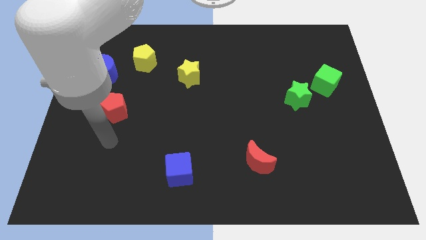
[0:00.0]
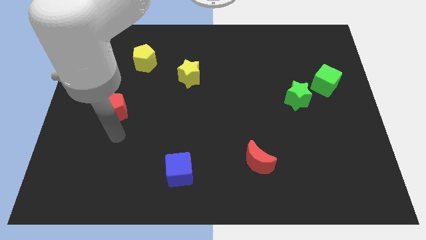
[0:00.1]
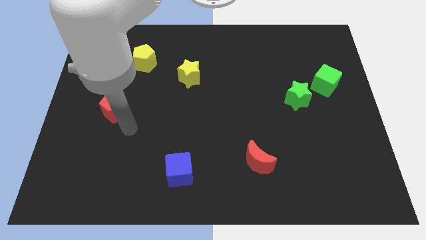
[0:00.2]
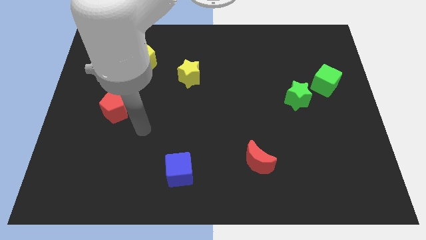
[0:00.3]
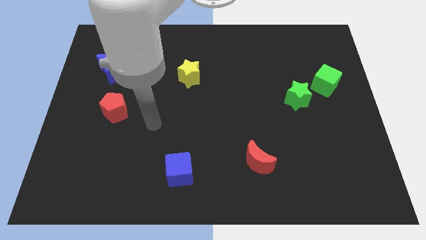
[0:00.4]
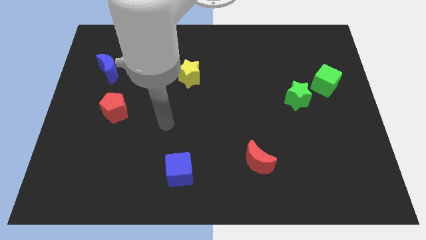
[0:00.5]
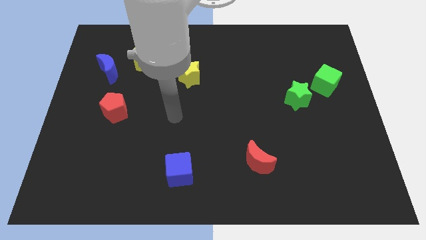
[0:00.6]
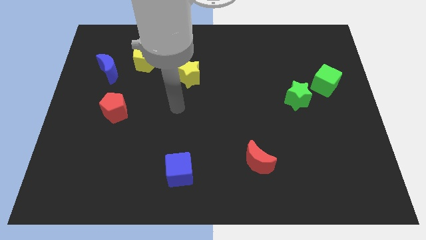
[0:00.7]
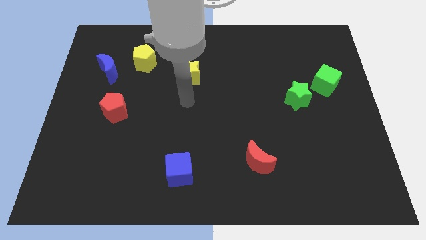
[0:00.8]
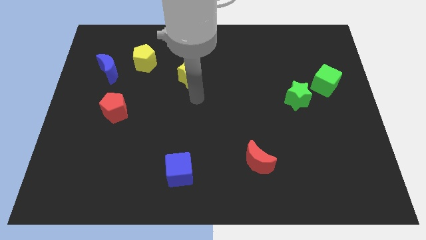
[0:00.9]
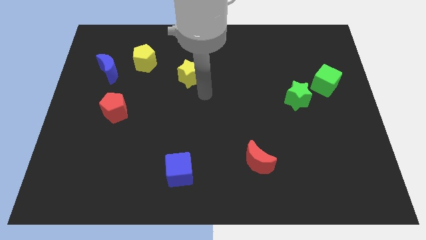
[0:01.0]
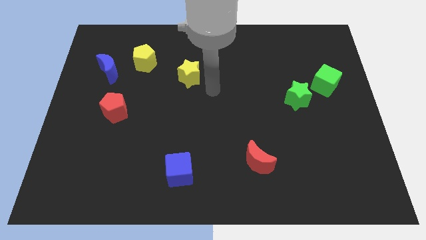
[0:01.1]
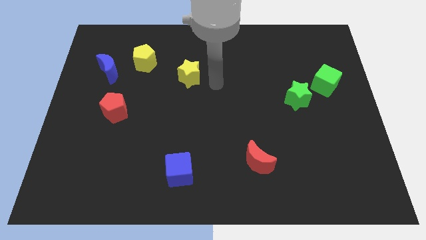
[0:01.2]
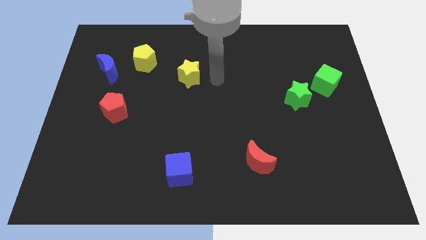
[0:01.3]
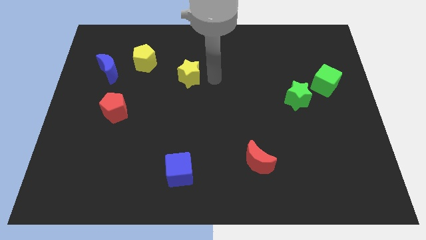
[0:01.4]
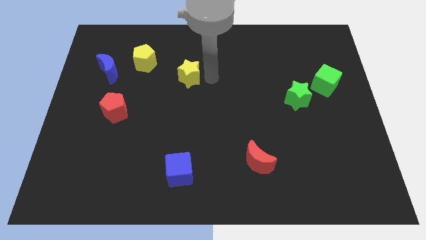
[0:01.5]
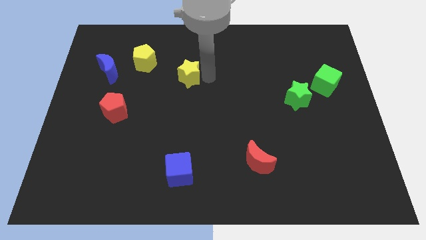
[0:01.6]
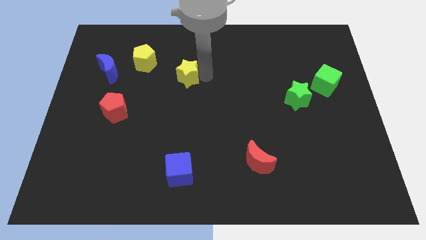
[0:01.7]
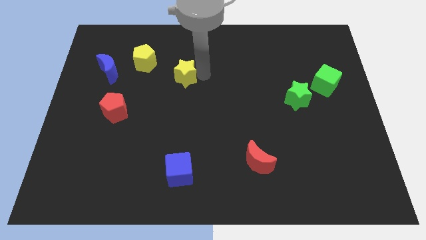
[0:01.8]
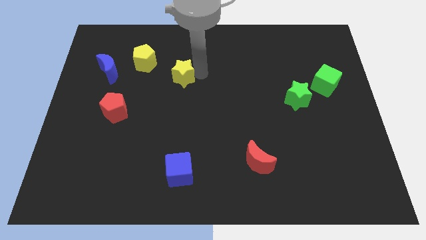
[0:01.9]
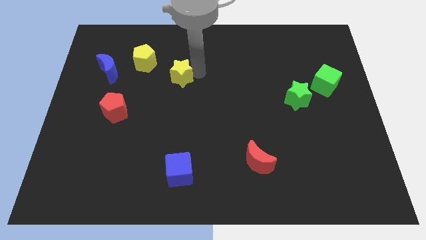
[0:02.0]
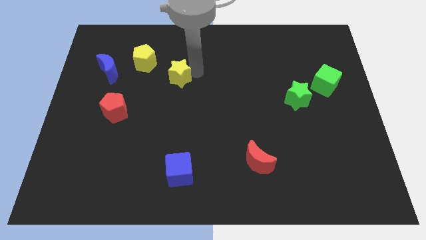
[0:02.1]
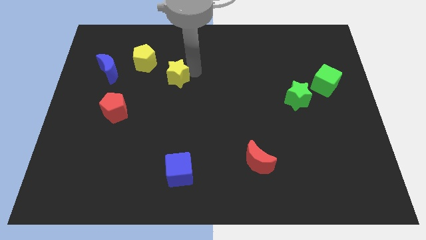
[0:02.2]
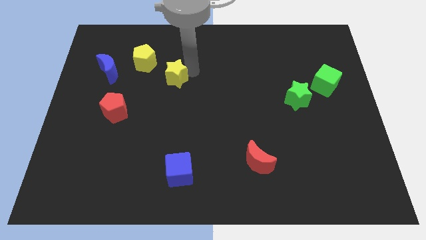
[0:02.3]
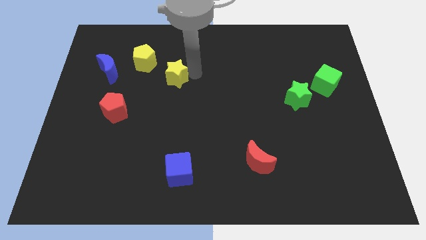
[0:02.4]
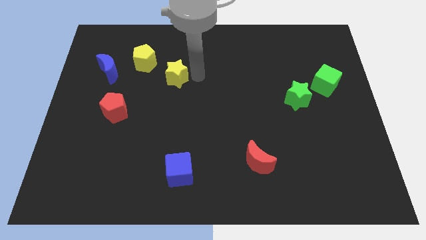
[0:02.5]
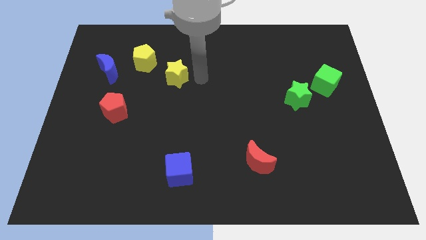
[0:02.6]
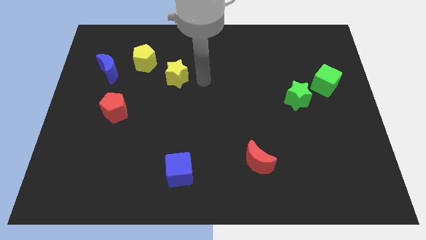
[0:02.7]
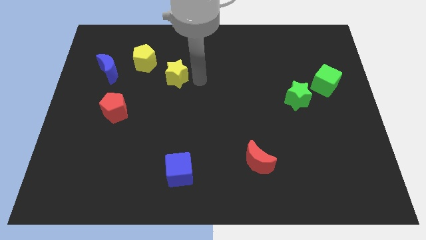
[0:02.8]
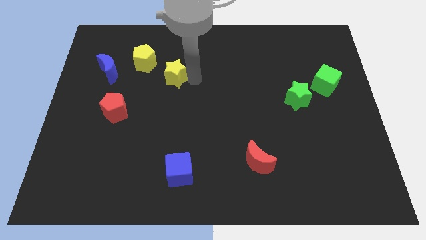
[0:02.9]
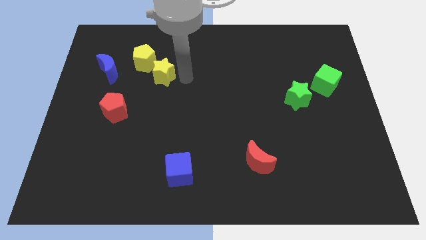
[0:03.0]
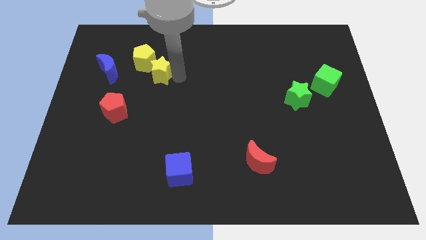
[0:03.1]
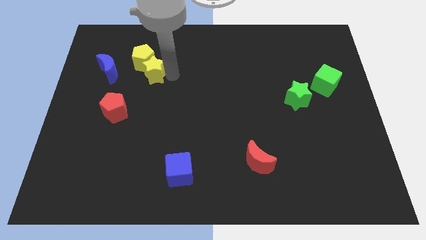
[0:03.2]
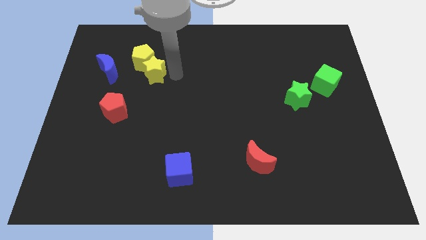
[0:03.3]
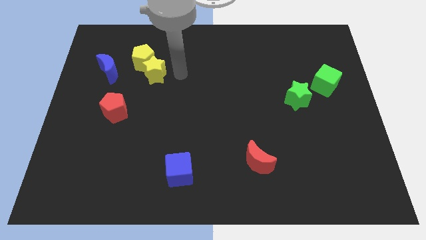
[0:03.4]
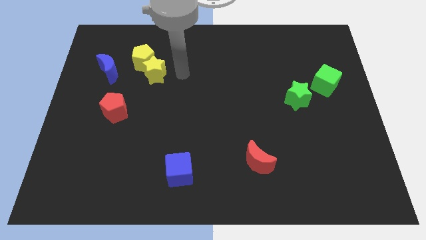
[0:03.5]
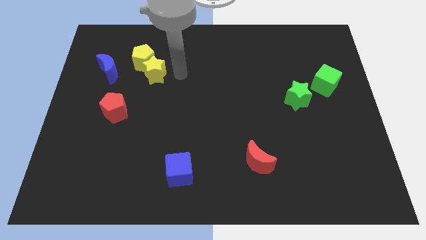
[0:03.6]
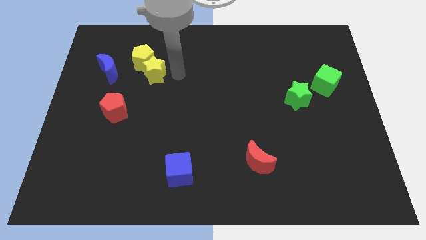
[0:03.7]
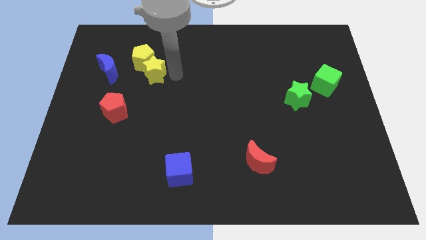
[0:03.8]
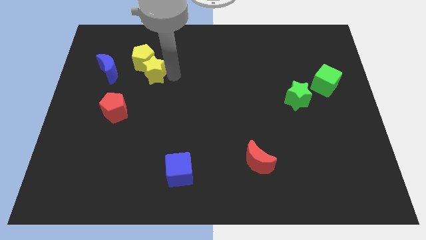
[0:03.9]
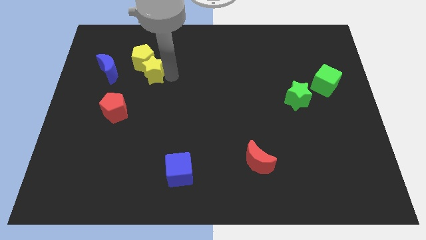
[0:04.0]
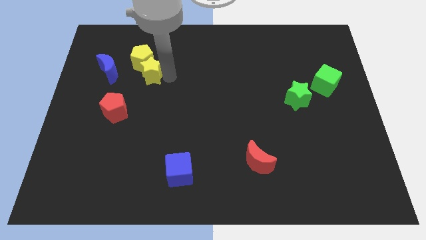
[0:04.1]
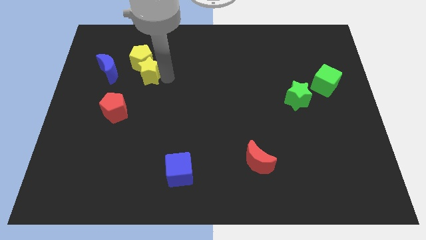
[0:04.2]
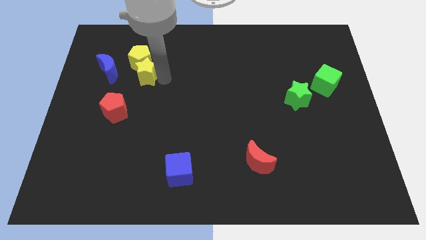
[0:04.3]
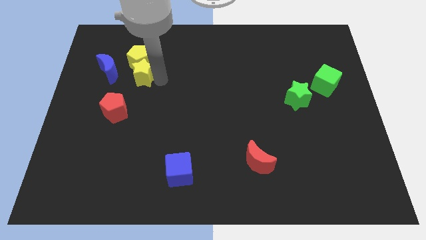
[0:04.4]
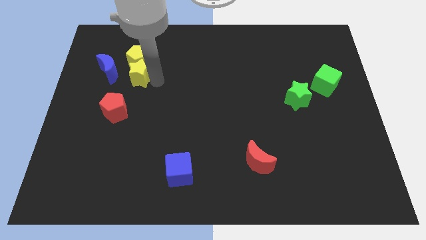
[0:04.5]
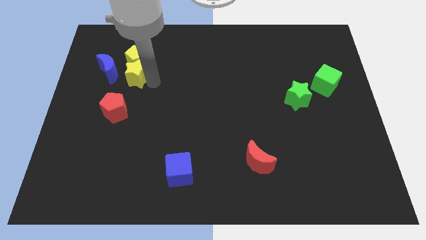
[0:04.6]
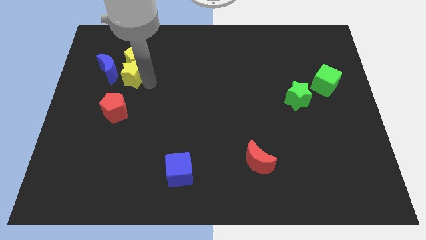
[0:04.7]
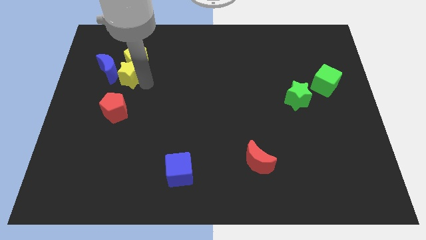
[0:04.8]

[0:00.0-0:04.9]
put the yellow star towards the blue moon

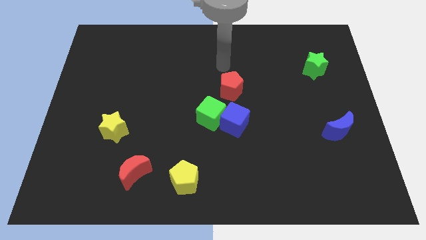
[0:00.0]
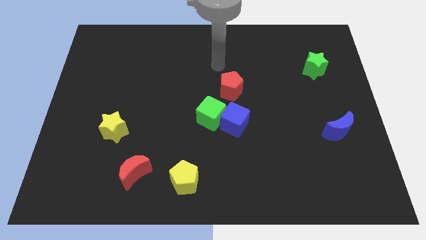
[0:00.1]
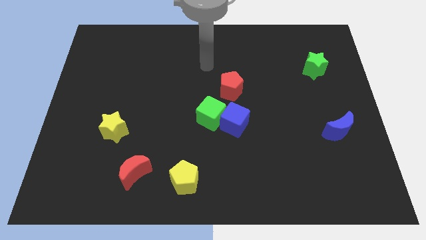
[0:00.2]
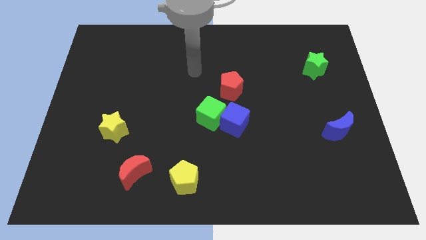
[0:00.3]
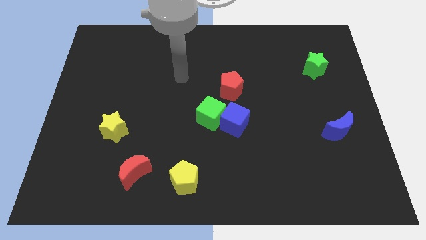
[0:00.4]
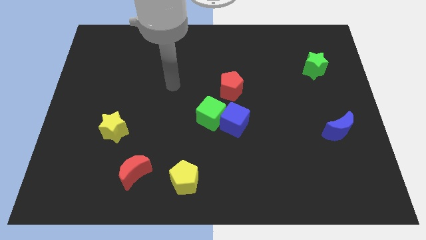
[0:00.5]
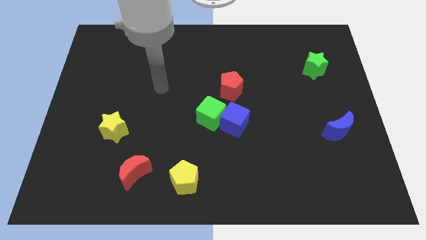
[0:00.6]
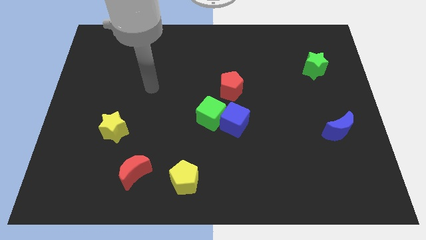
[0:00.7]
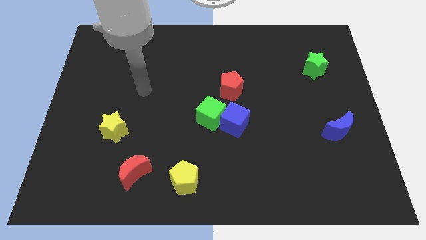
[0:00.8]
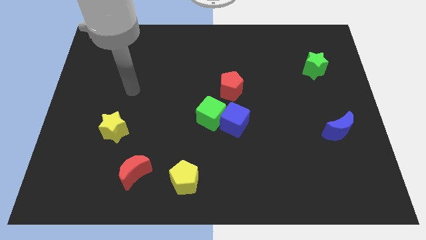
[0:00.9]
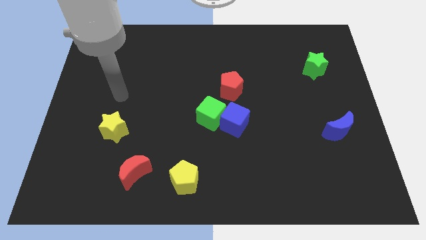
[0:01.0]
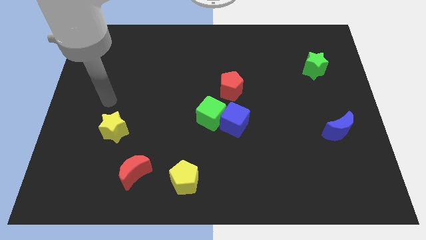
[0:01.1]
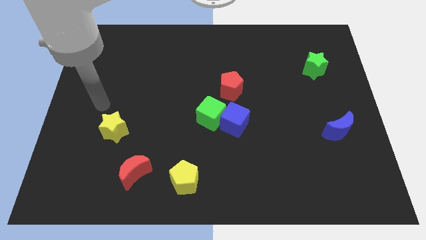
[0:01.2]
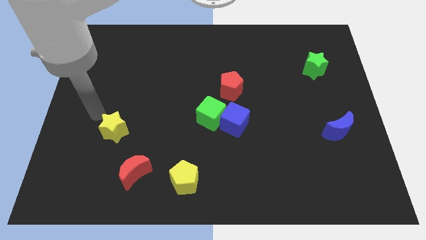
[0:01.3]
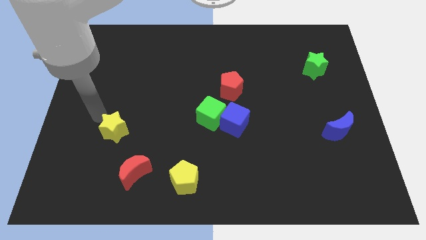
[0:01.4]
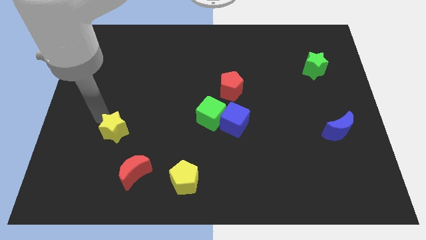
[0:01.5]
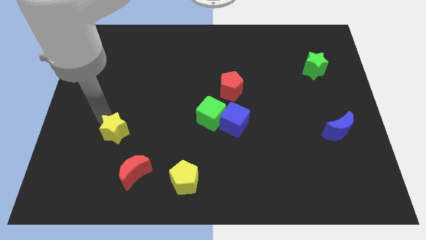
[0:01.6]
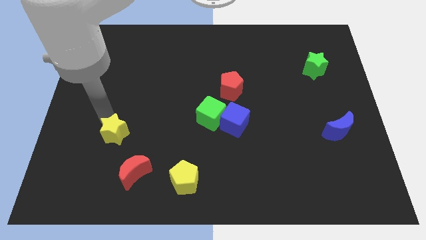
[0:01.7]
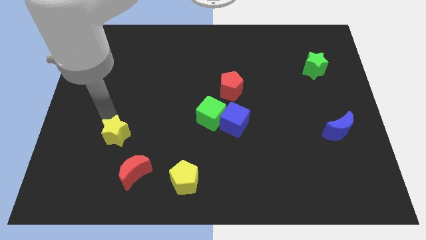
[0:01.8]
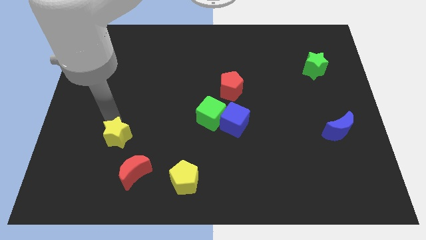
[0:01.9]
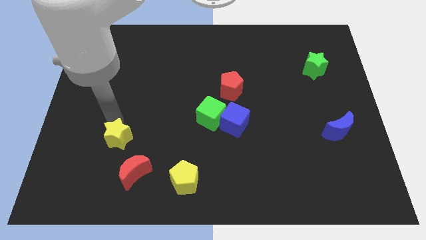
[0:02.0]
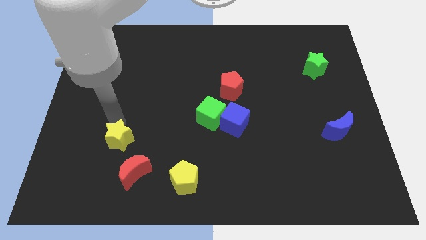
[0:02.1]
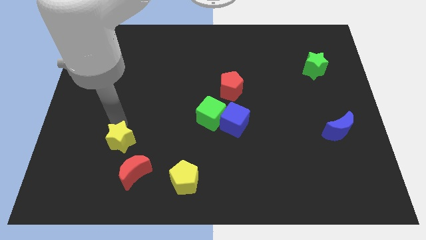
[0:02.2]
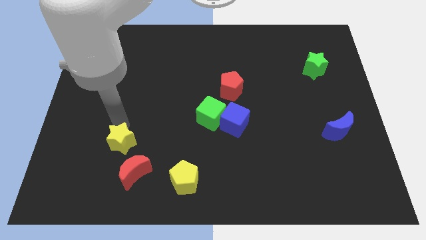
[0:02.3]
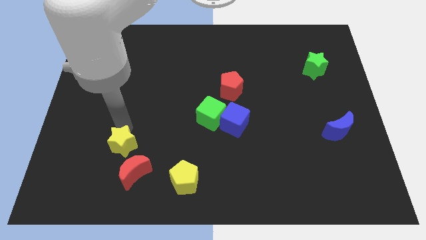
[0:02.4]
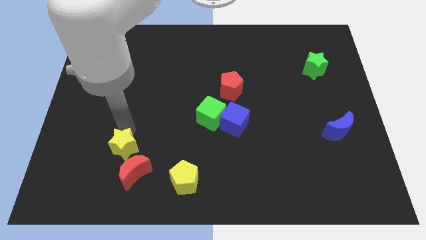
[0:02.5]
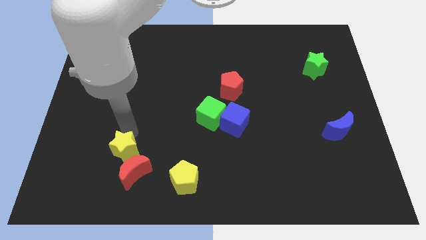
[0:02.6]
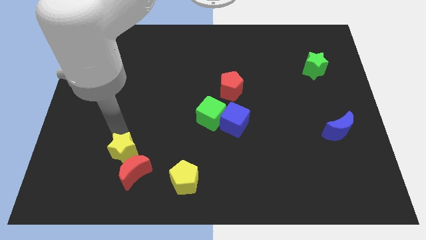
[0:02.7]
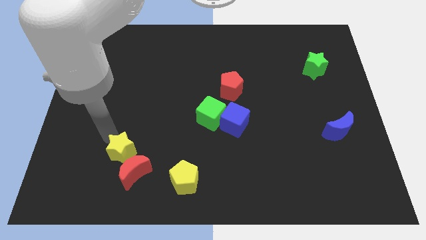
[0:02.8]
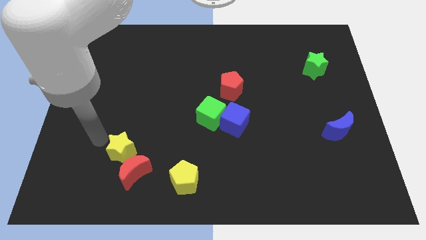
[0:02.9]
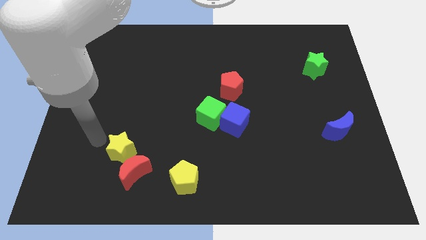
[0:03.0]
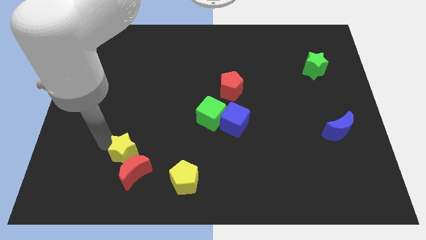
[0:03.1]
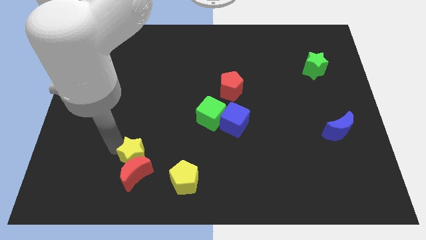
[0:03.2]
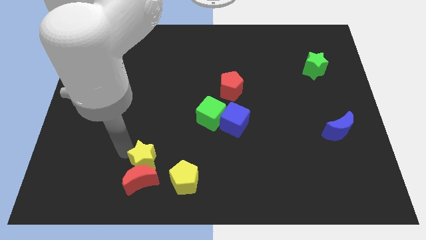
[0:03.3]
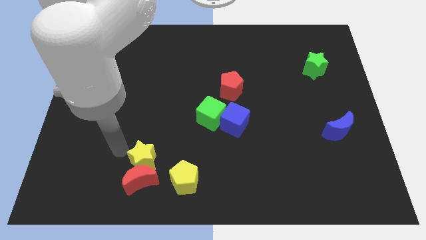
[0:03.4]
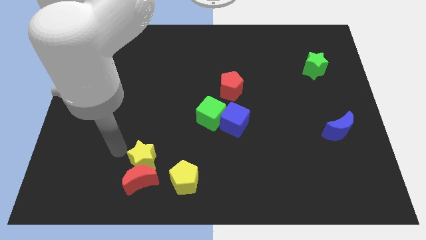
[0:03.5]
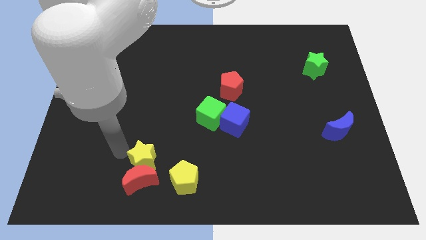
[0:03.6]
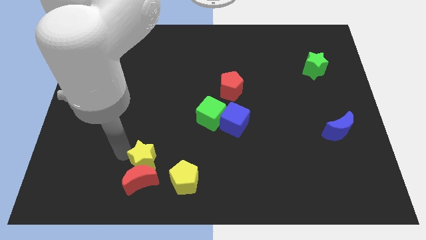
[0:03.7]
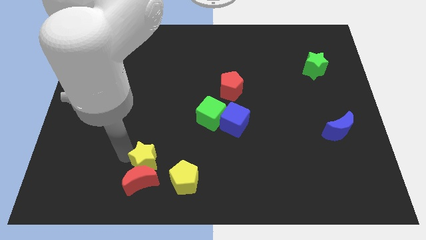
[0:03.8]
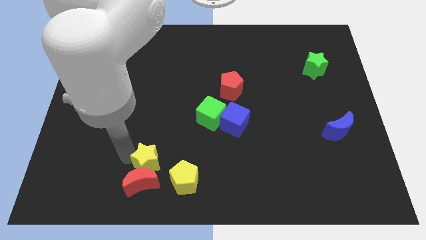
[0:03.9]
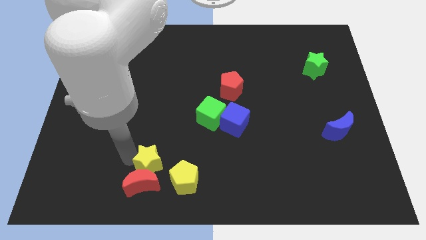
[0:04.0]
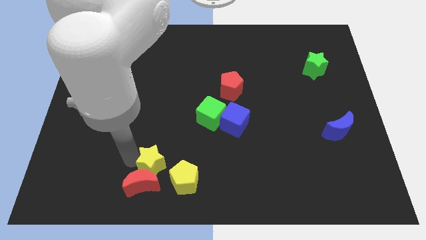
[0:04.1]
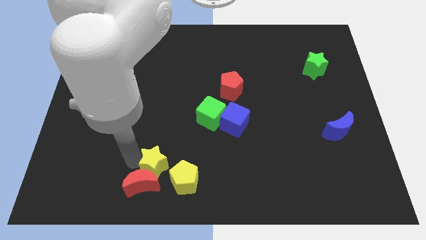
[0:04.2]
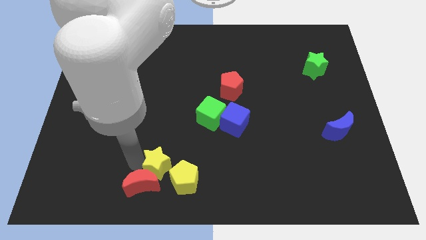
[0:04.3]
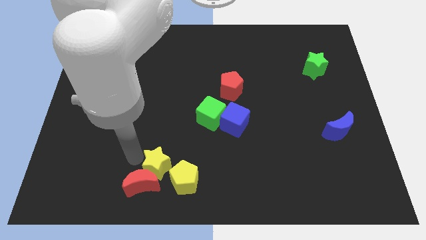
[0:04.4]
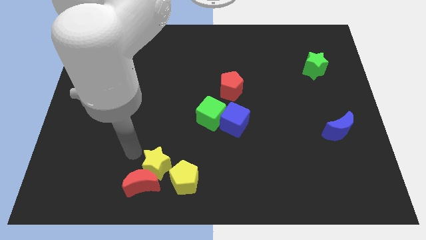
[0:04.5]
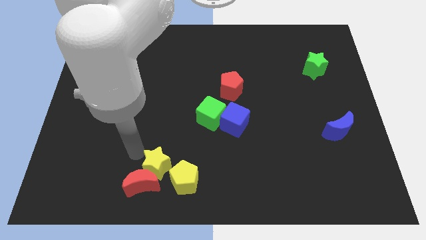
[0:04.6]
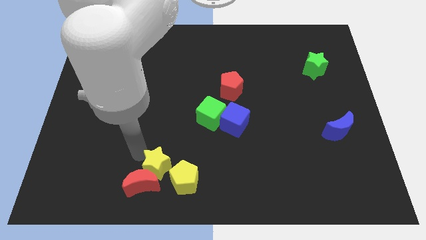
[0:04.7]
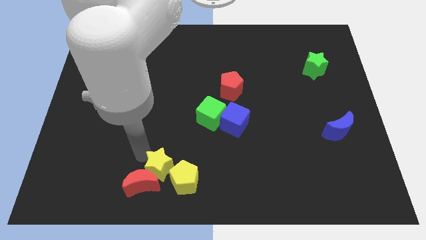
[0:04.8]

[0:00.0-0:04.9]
move the yellow star towards the yellow pentagon
